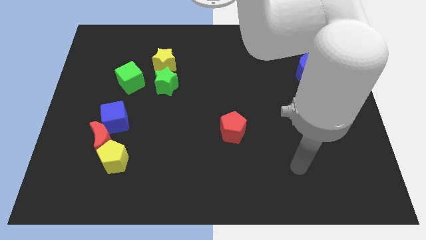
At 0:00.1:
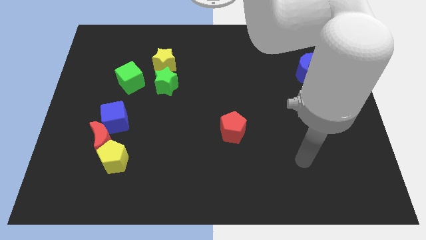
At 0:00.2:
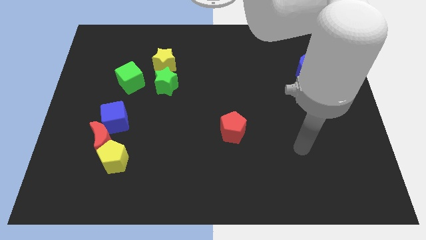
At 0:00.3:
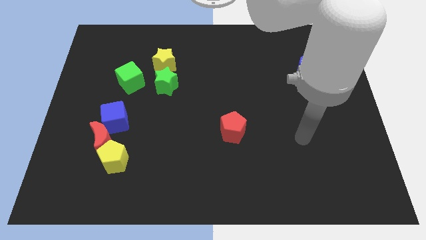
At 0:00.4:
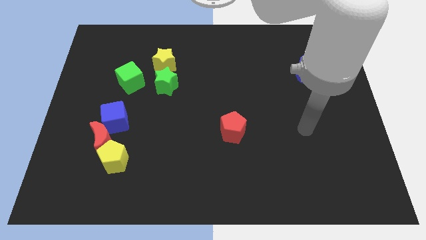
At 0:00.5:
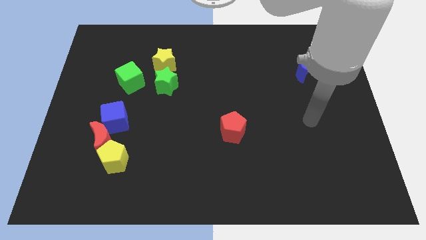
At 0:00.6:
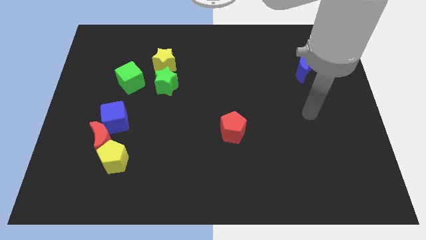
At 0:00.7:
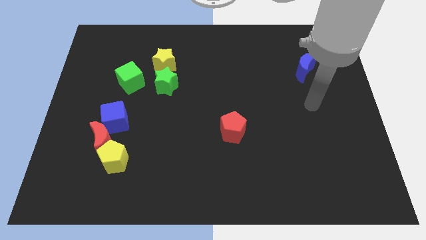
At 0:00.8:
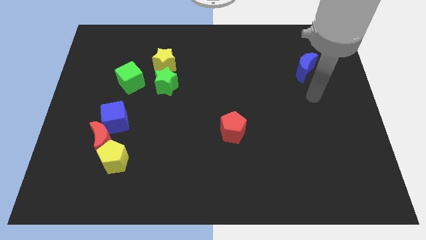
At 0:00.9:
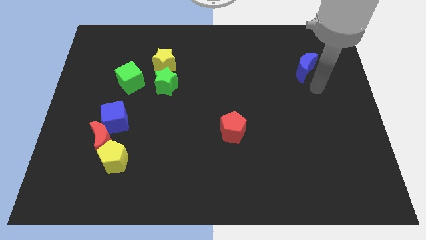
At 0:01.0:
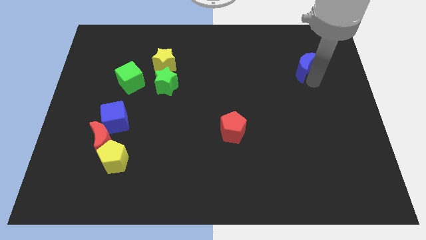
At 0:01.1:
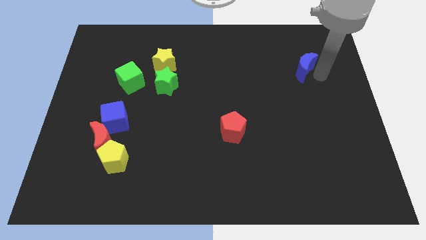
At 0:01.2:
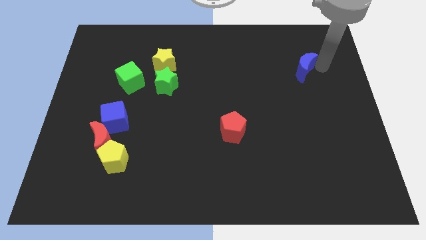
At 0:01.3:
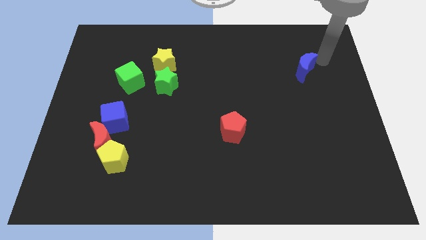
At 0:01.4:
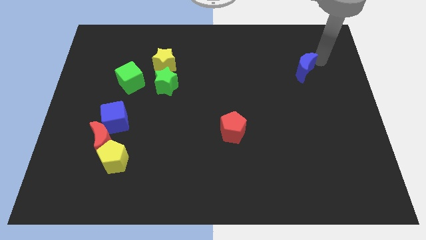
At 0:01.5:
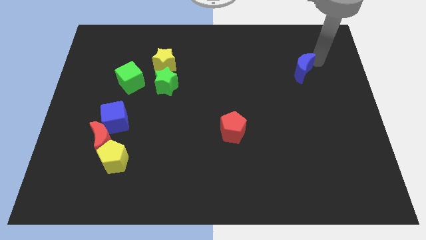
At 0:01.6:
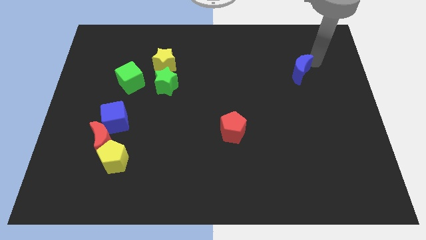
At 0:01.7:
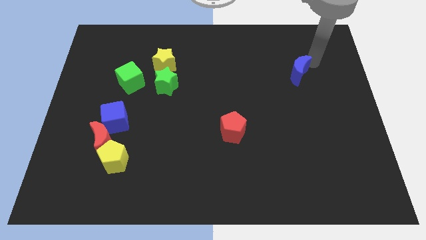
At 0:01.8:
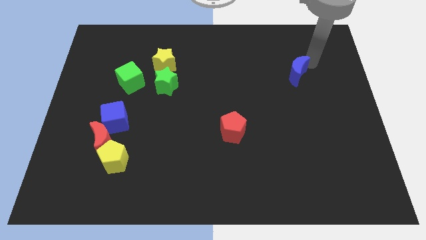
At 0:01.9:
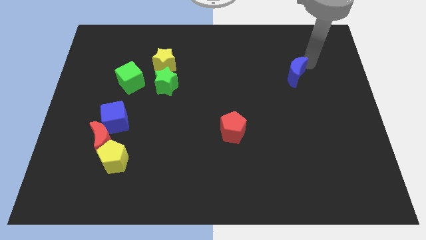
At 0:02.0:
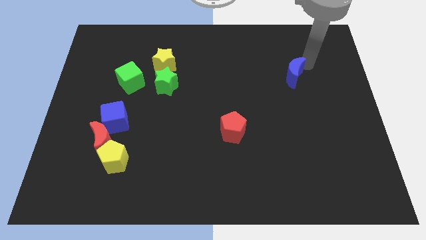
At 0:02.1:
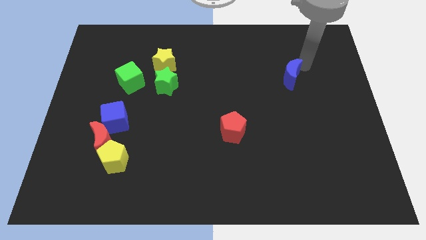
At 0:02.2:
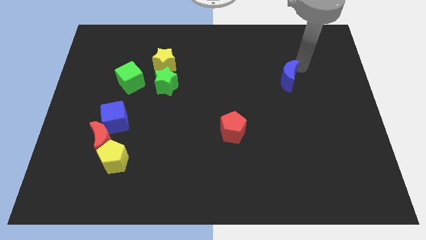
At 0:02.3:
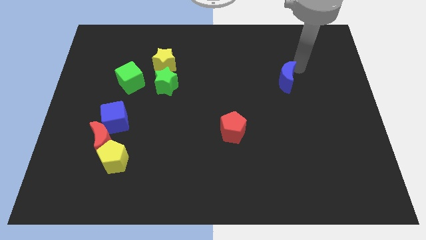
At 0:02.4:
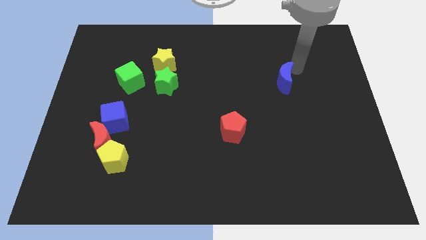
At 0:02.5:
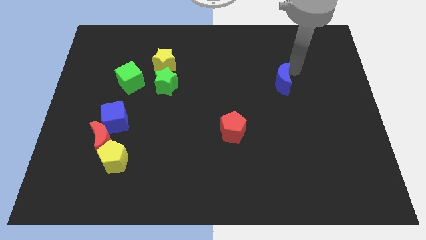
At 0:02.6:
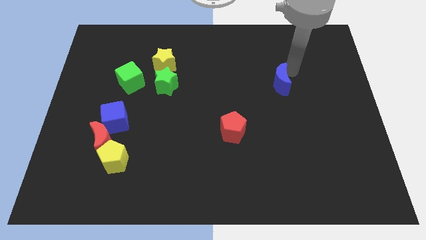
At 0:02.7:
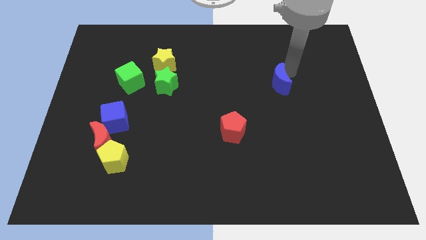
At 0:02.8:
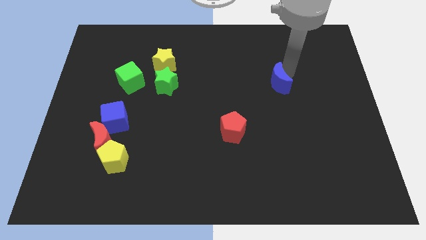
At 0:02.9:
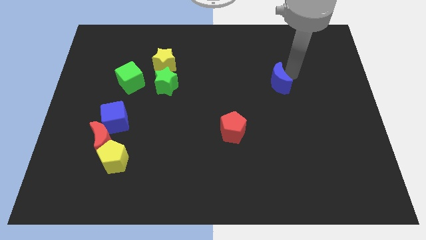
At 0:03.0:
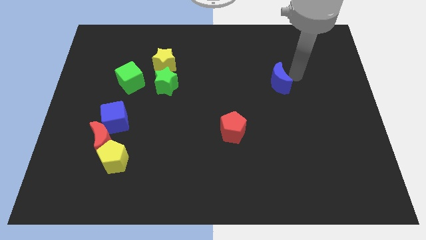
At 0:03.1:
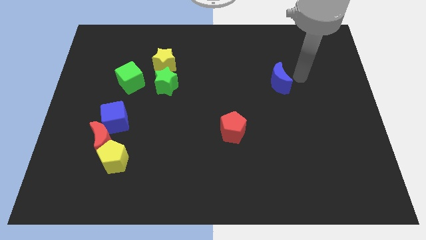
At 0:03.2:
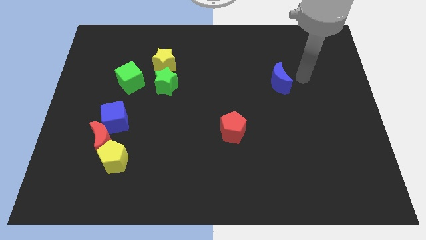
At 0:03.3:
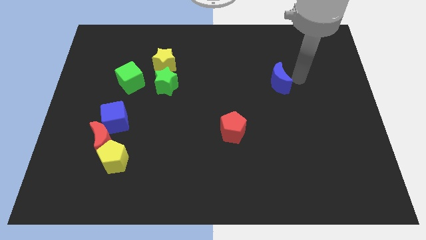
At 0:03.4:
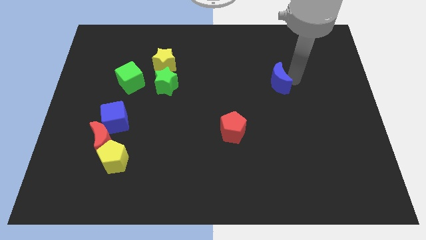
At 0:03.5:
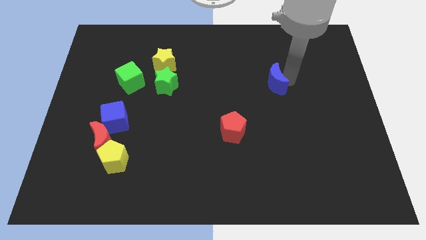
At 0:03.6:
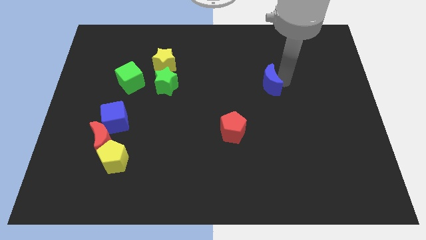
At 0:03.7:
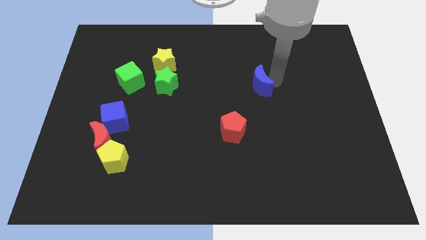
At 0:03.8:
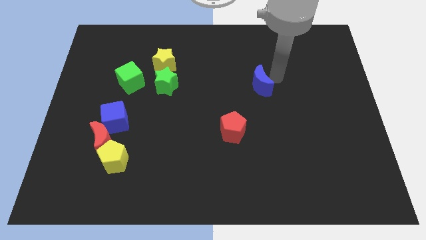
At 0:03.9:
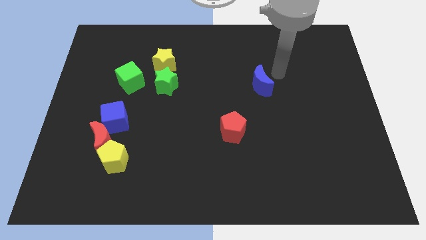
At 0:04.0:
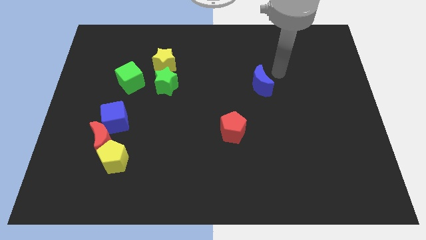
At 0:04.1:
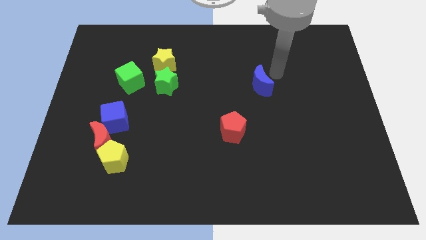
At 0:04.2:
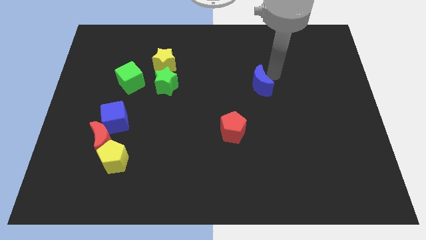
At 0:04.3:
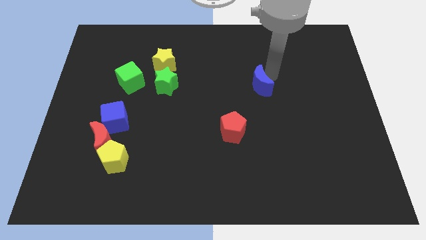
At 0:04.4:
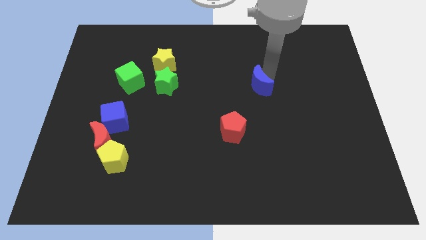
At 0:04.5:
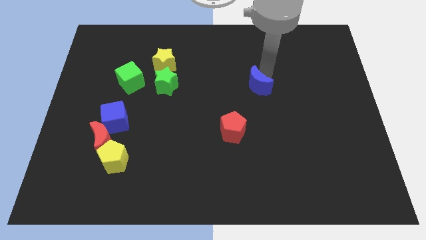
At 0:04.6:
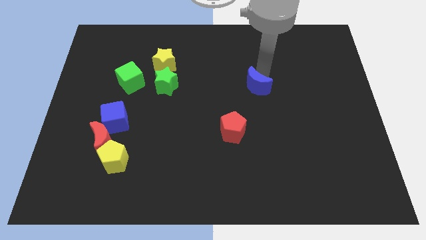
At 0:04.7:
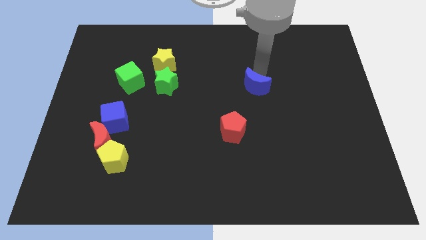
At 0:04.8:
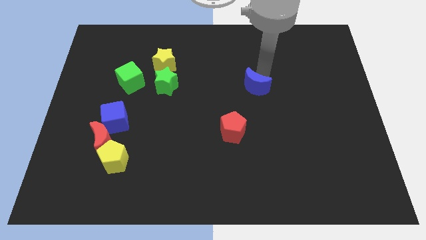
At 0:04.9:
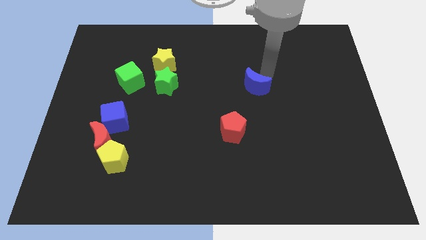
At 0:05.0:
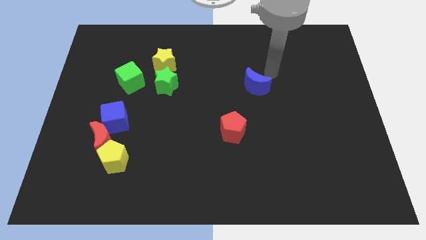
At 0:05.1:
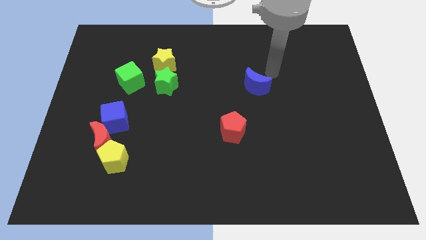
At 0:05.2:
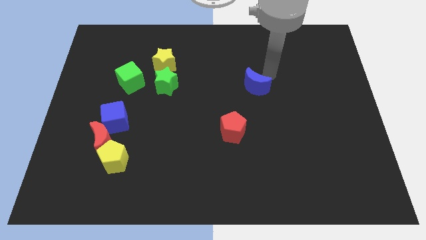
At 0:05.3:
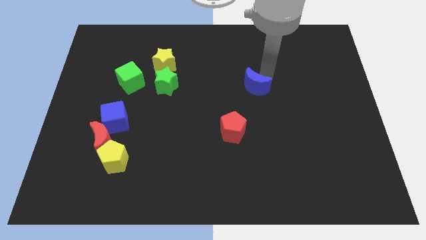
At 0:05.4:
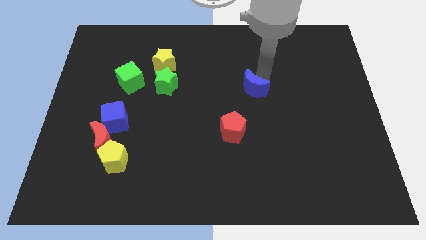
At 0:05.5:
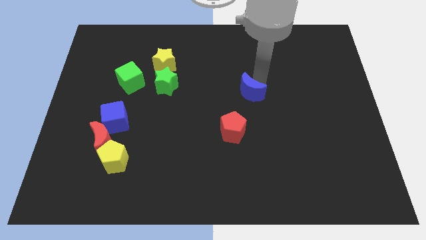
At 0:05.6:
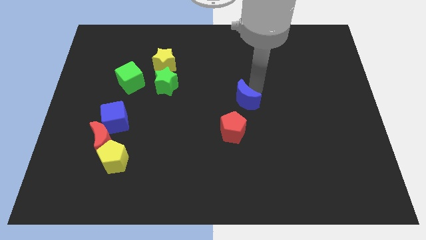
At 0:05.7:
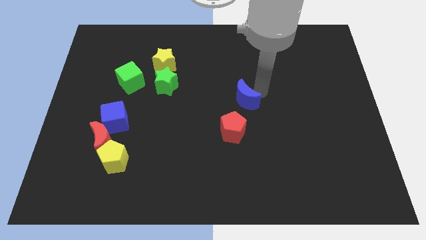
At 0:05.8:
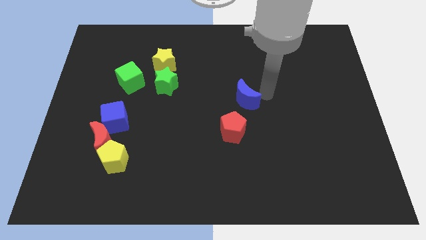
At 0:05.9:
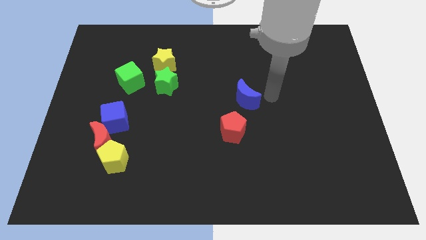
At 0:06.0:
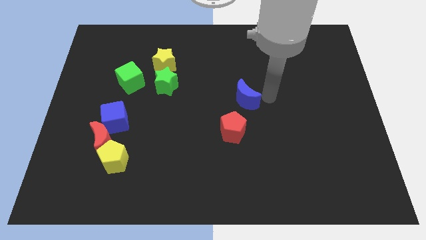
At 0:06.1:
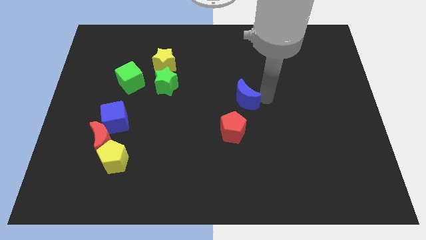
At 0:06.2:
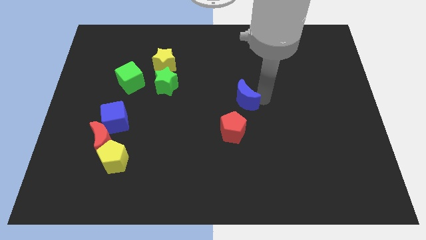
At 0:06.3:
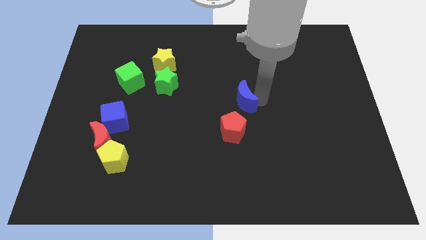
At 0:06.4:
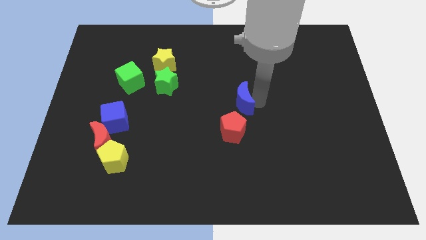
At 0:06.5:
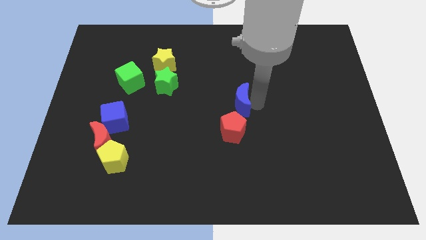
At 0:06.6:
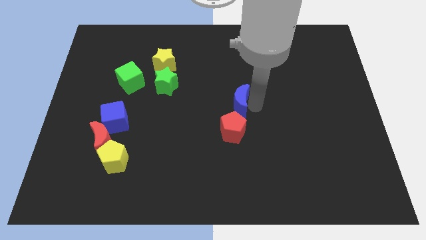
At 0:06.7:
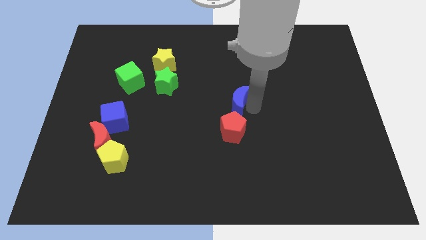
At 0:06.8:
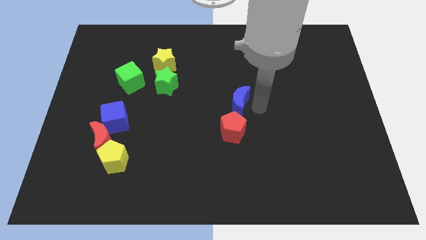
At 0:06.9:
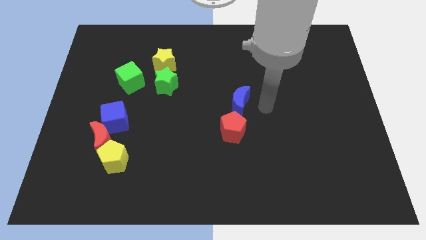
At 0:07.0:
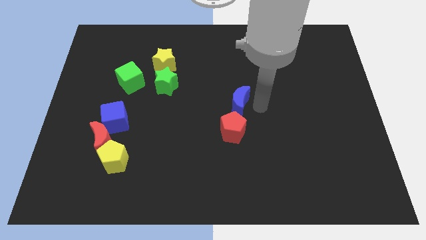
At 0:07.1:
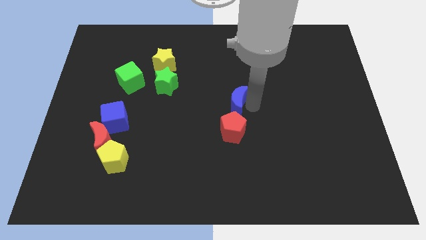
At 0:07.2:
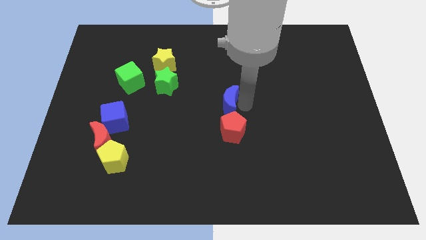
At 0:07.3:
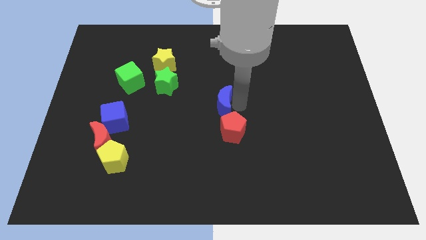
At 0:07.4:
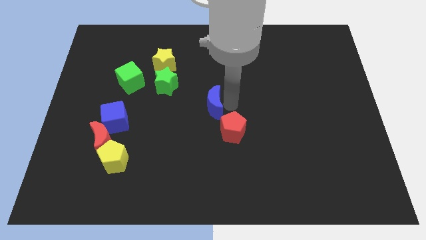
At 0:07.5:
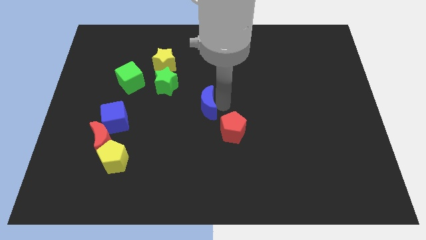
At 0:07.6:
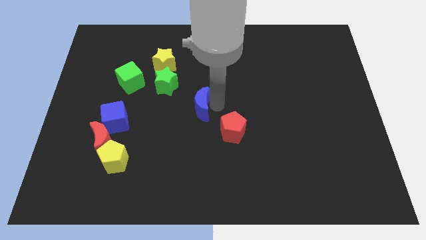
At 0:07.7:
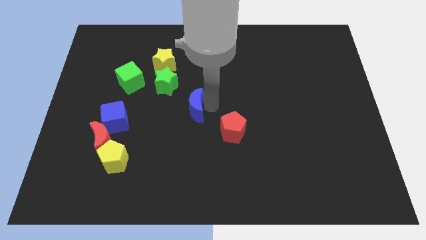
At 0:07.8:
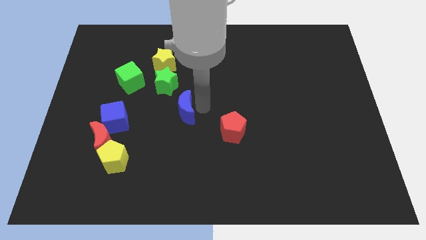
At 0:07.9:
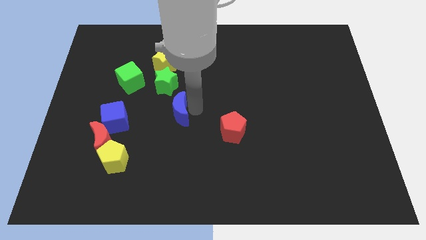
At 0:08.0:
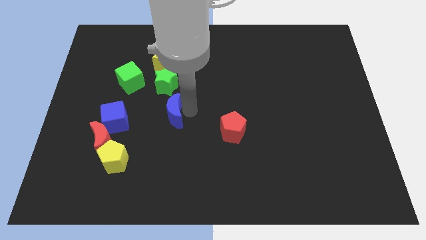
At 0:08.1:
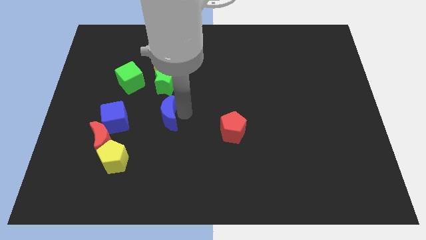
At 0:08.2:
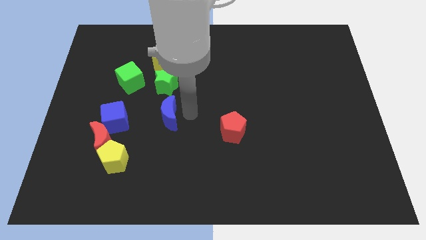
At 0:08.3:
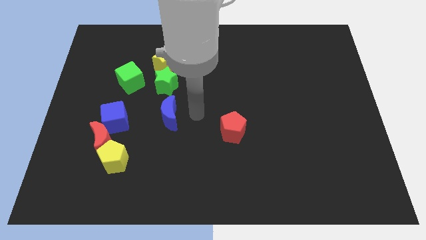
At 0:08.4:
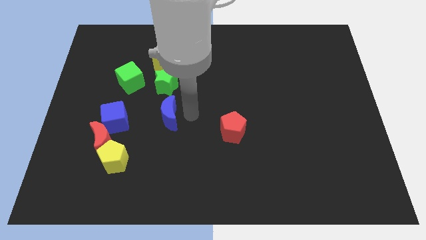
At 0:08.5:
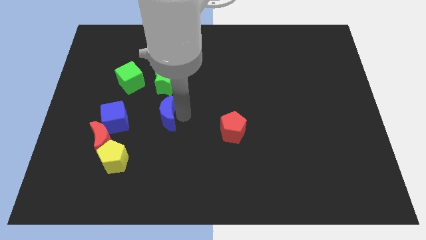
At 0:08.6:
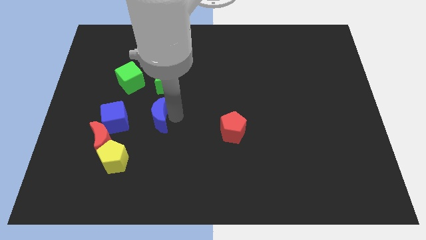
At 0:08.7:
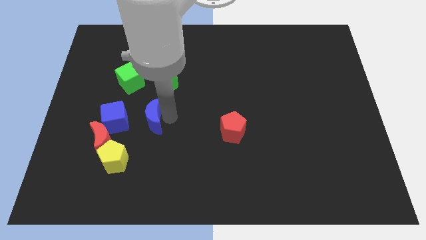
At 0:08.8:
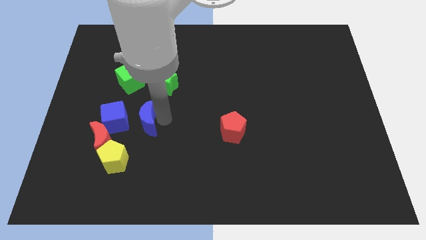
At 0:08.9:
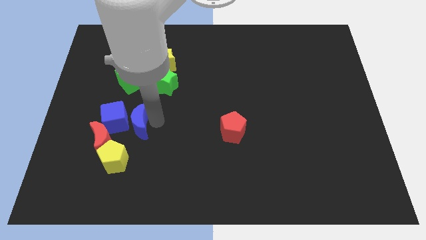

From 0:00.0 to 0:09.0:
push the blue moon to the blue cube
